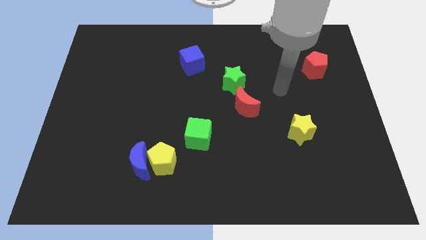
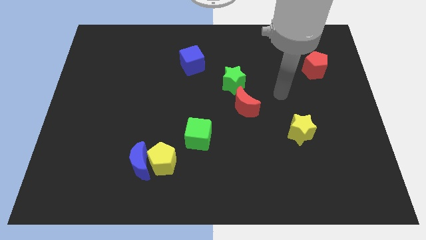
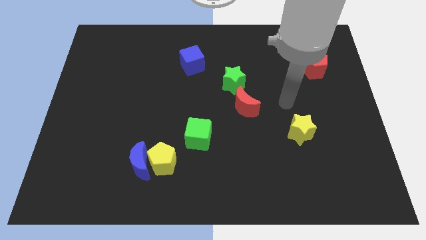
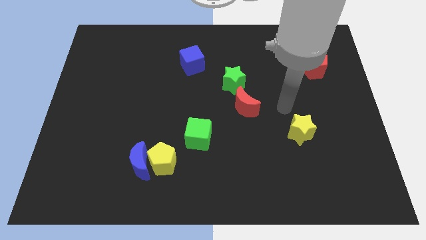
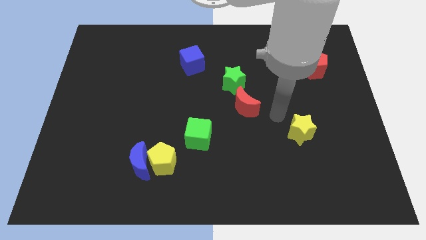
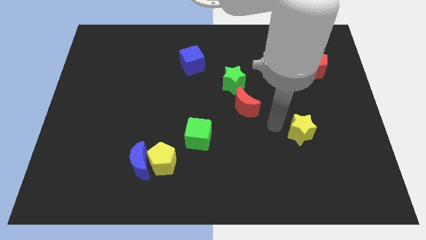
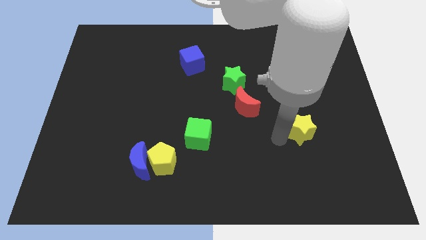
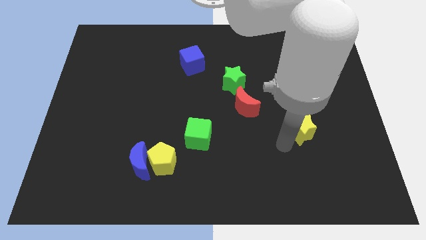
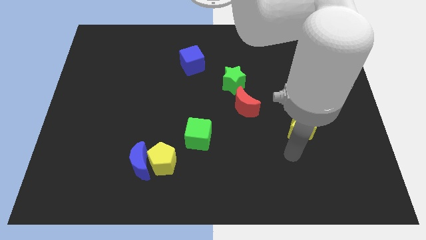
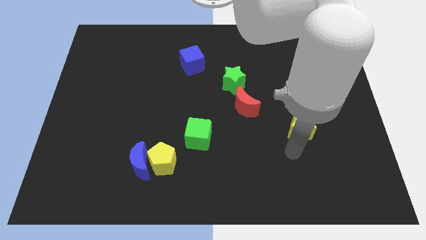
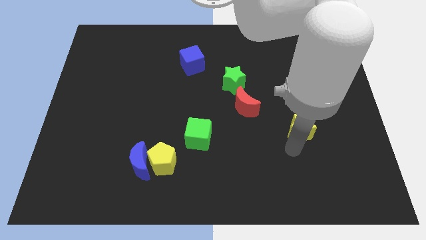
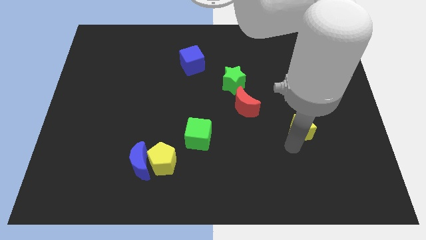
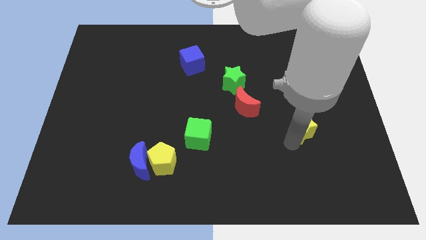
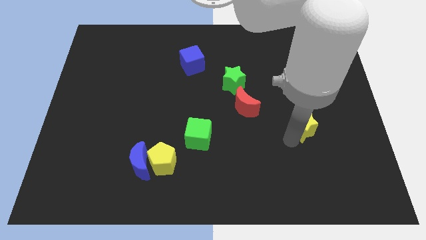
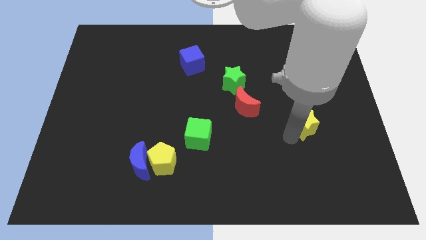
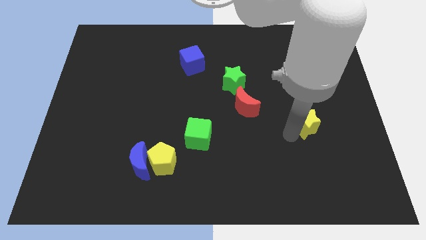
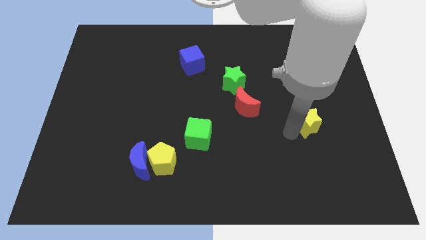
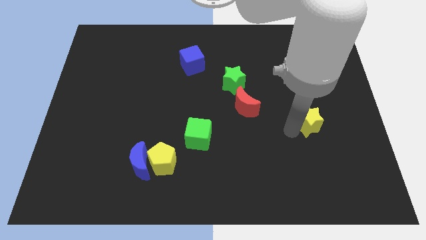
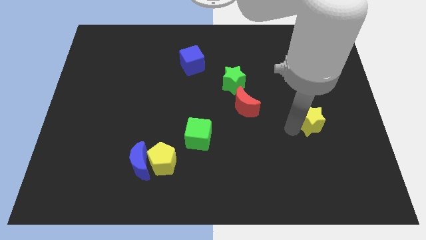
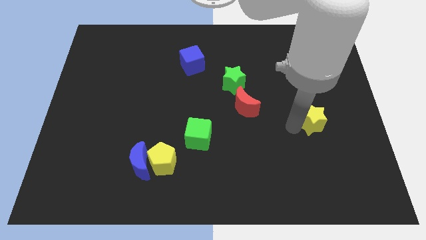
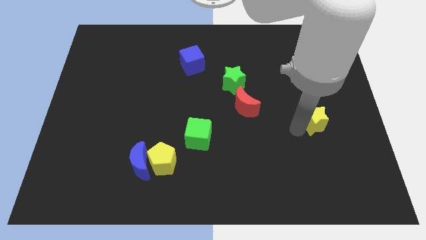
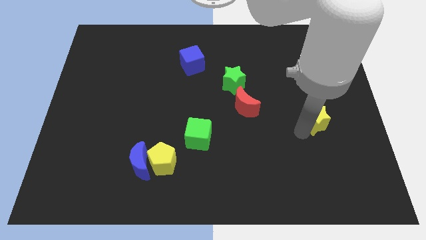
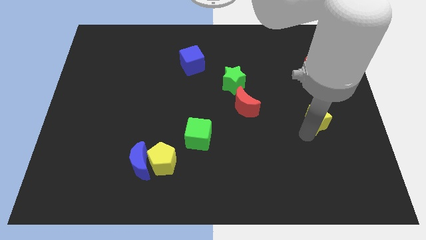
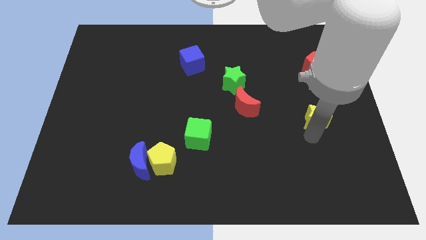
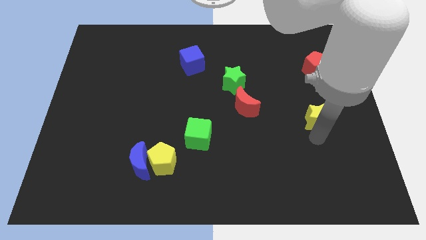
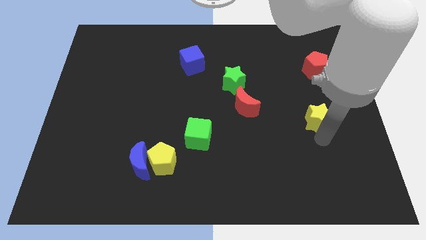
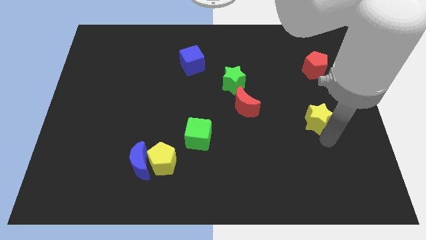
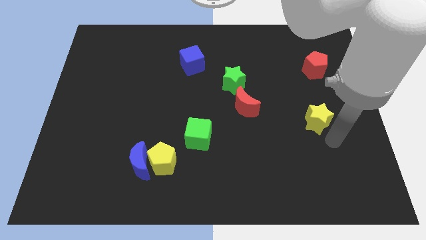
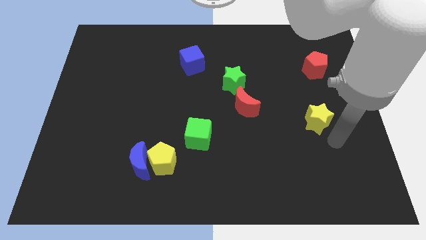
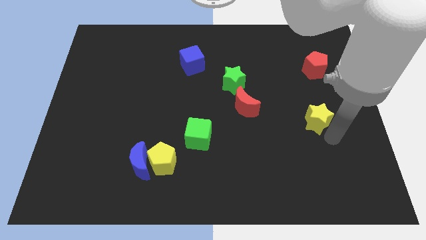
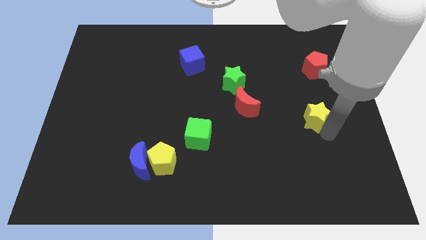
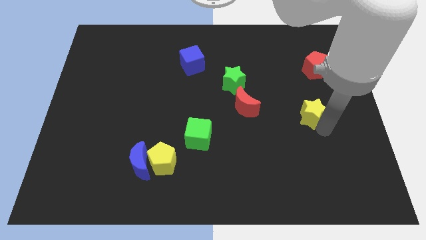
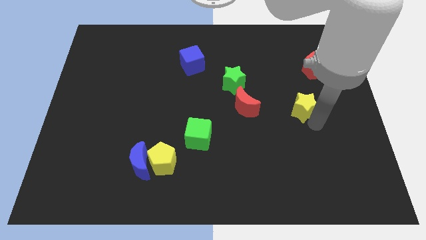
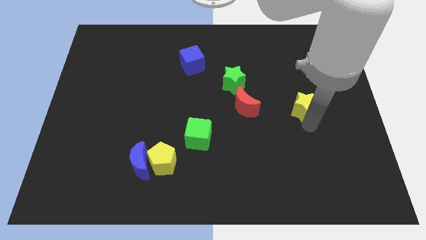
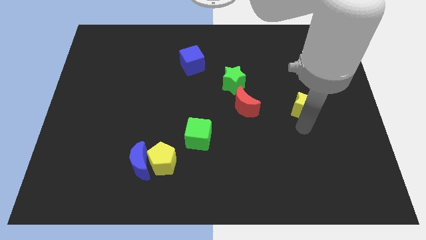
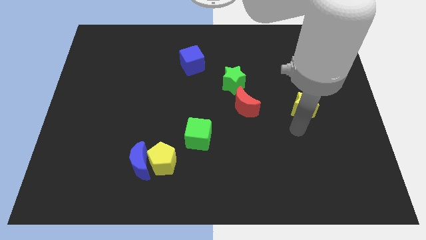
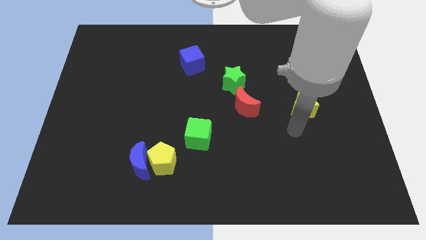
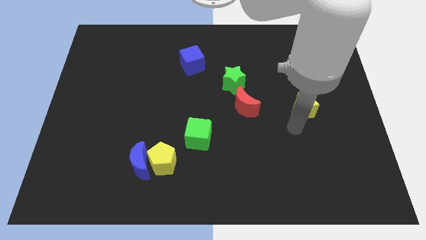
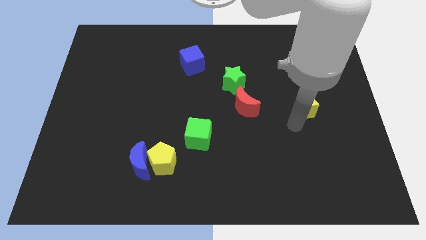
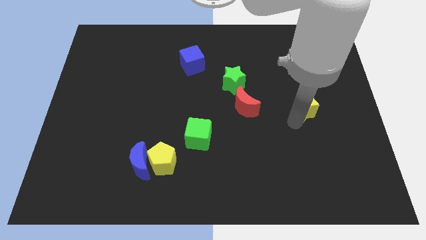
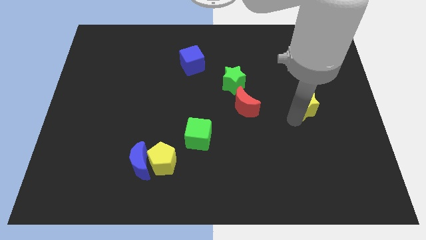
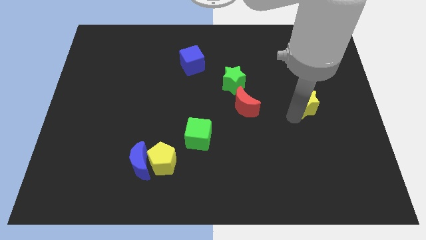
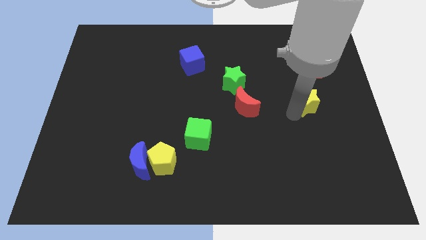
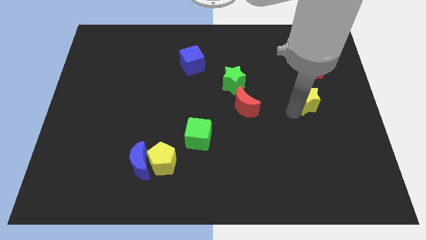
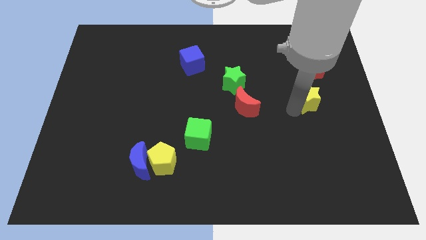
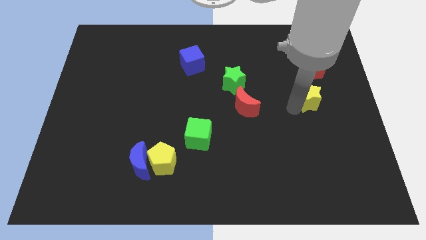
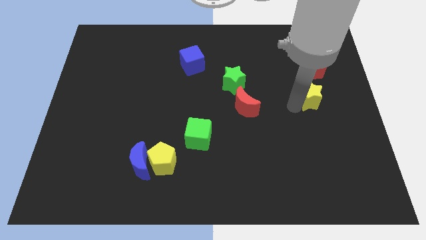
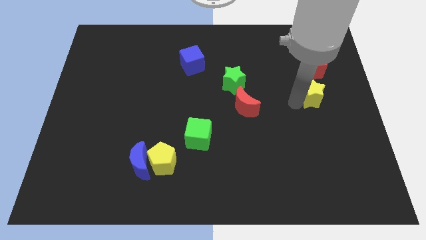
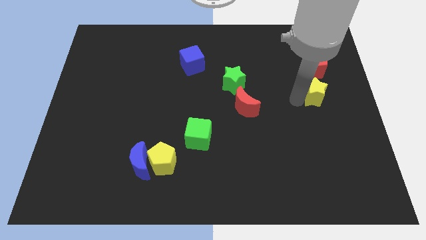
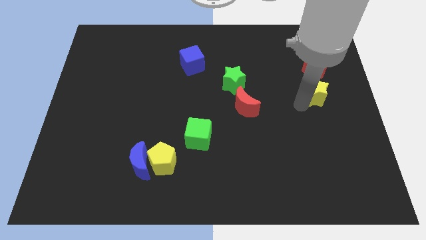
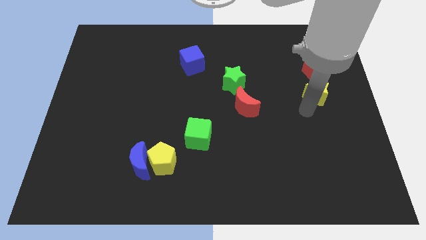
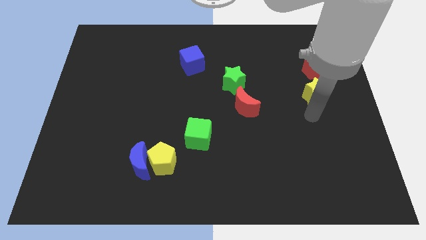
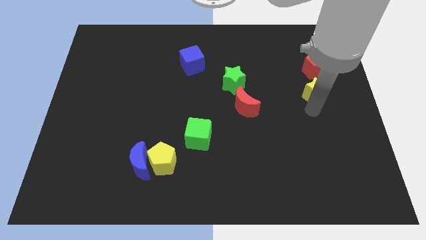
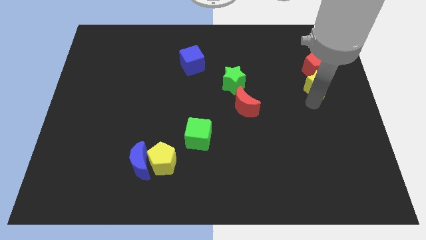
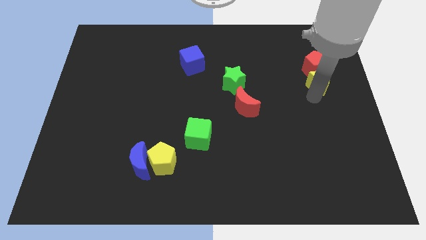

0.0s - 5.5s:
push the yellow star to the red pentagon

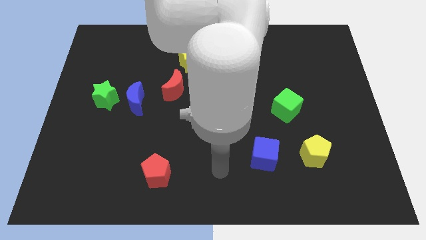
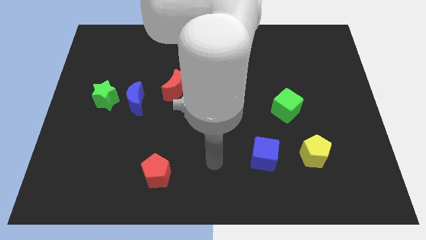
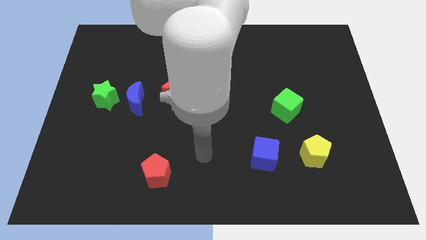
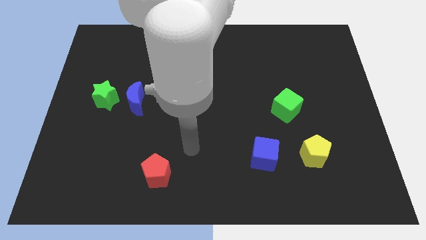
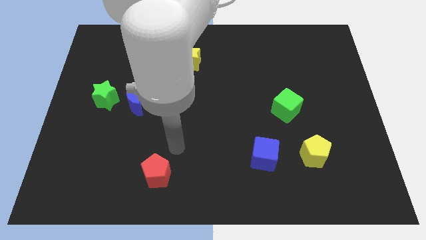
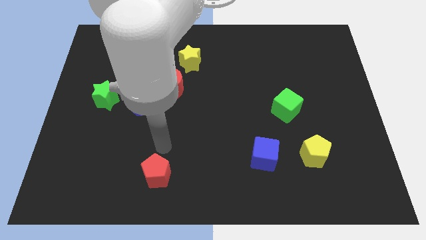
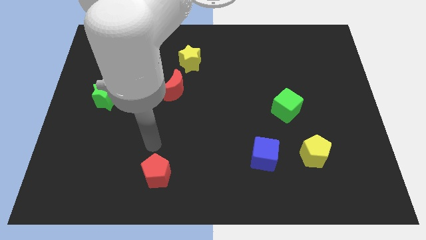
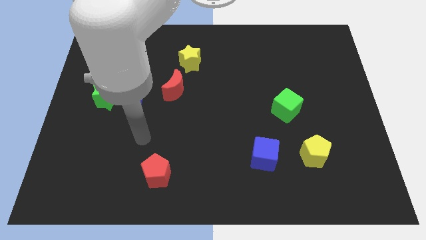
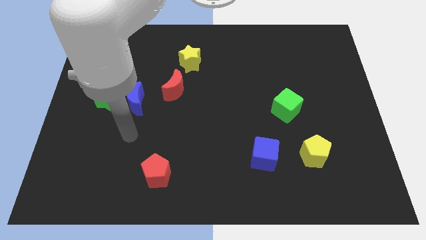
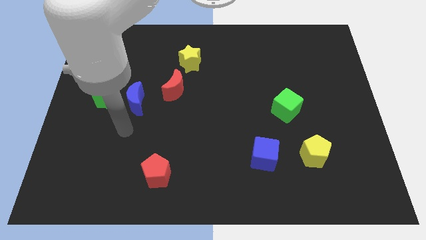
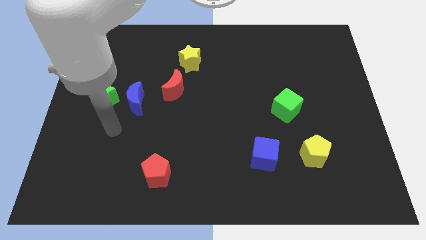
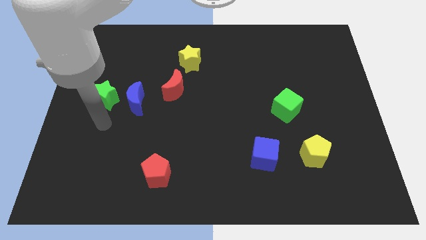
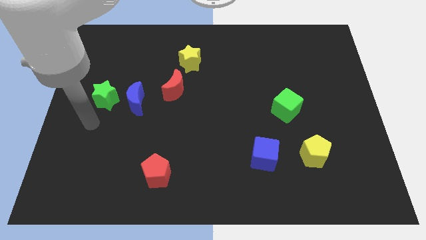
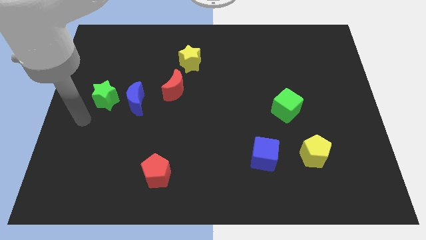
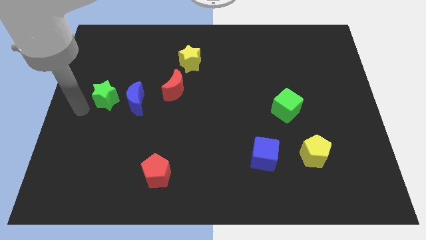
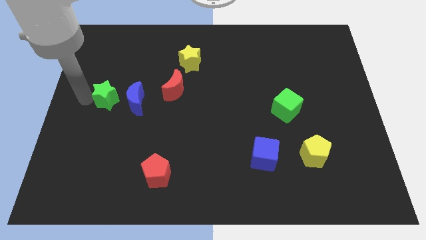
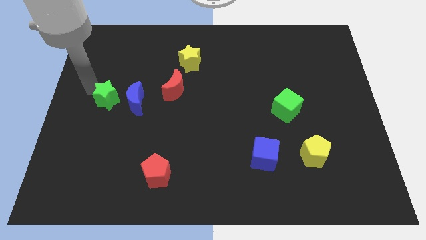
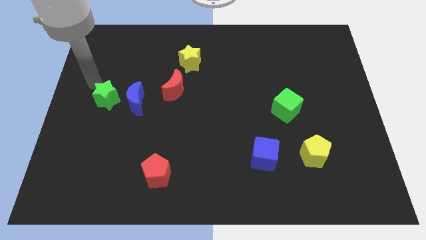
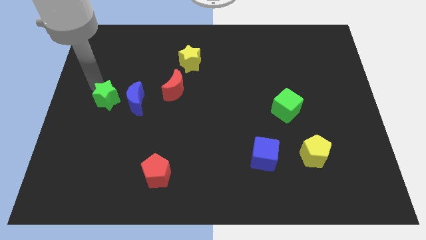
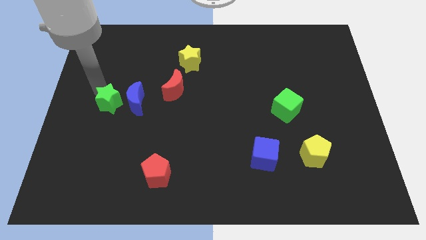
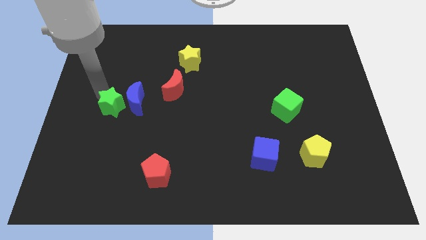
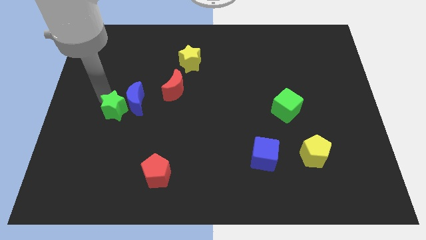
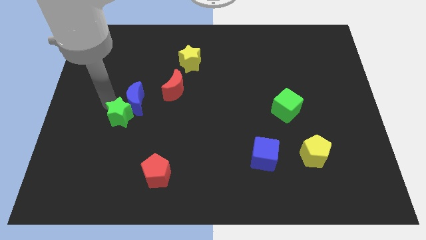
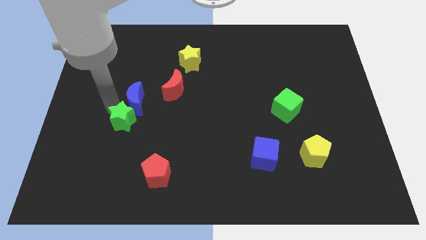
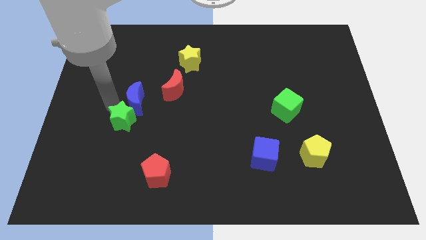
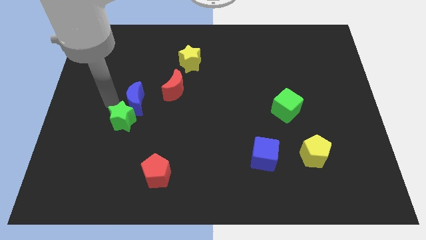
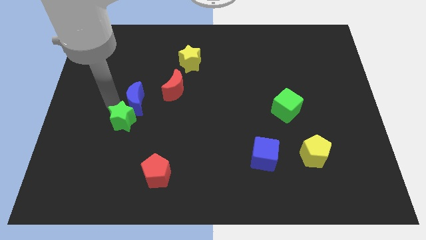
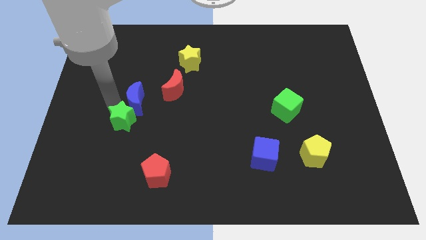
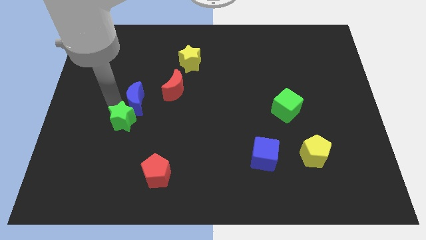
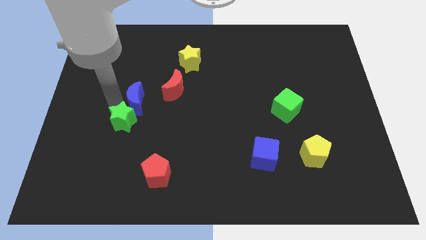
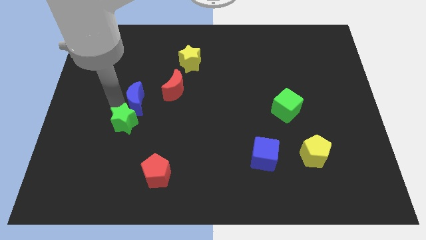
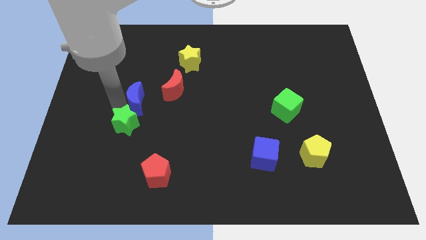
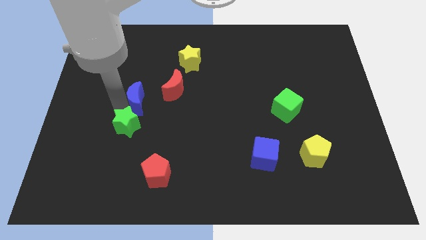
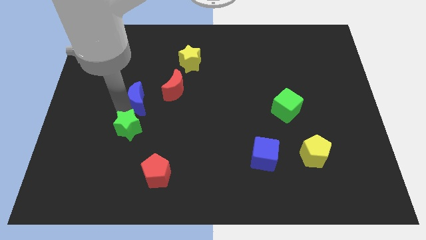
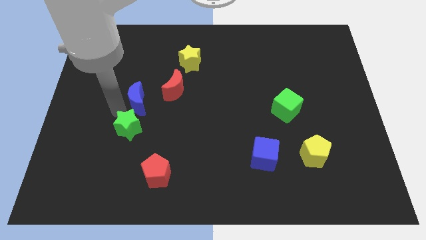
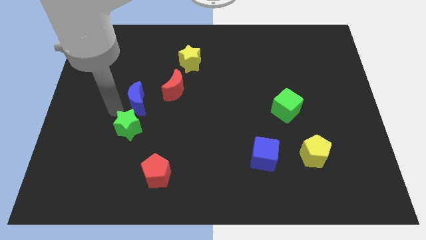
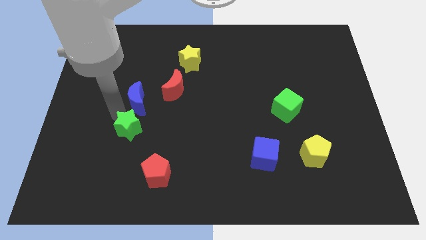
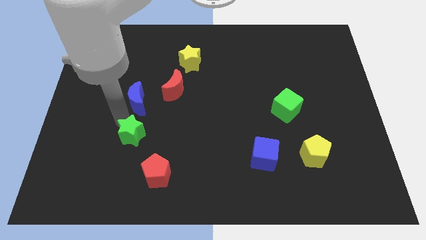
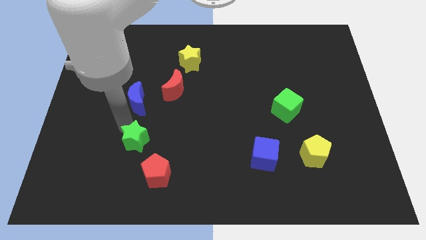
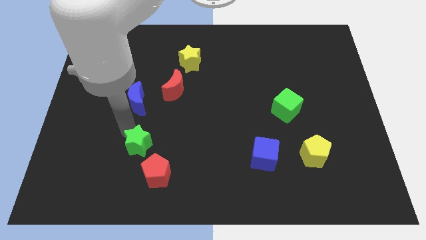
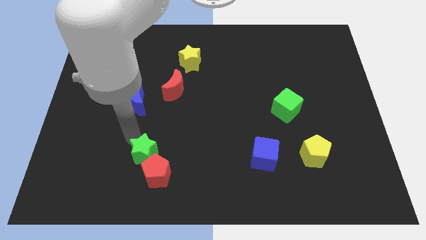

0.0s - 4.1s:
push the green star towards the red pentagon
